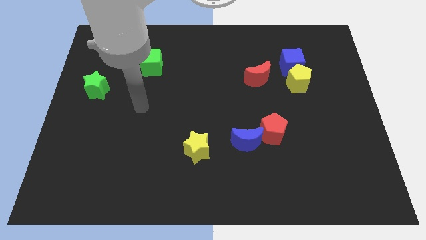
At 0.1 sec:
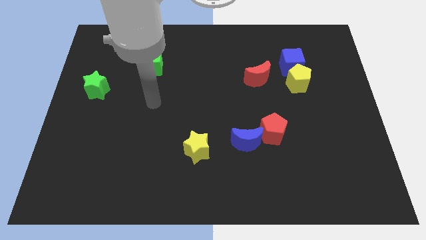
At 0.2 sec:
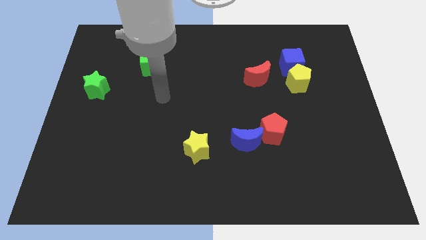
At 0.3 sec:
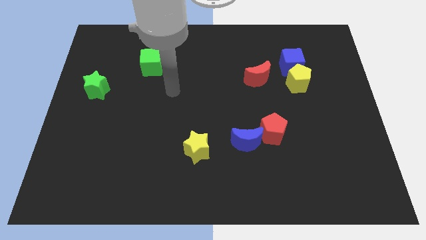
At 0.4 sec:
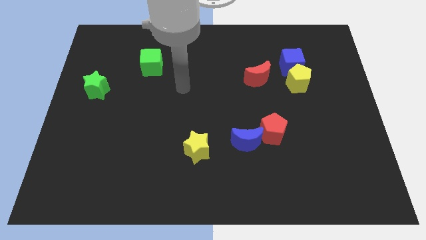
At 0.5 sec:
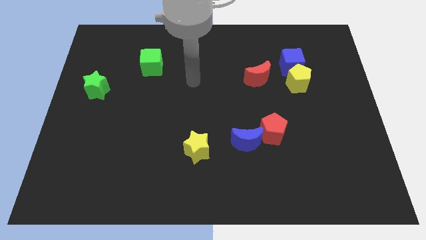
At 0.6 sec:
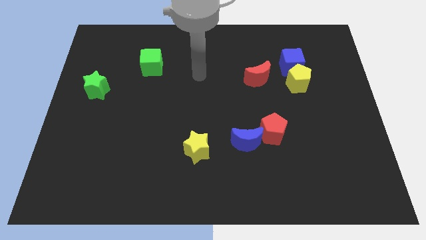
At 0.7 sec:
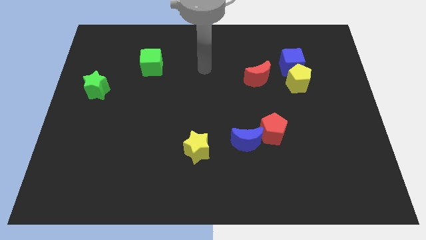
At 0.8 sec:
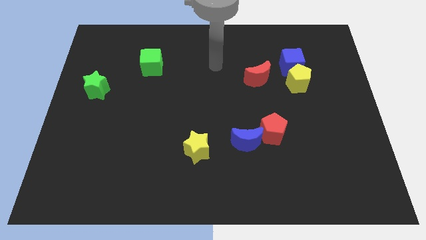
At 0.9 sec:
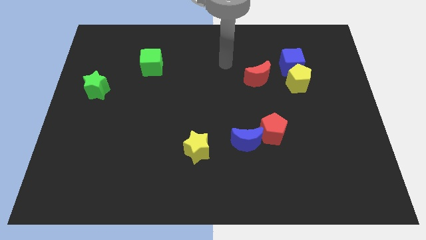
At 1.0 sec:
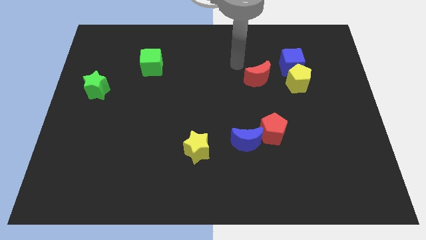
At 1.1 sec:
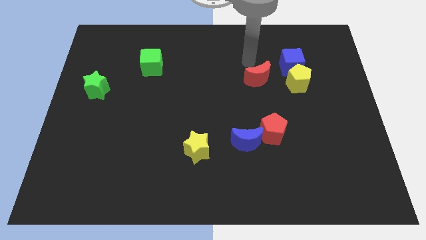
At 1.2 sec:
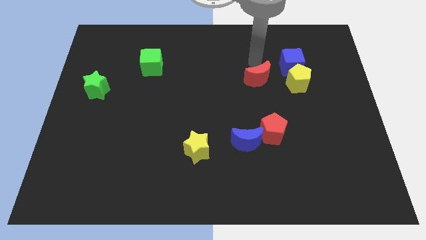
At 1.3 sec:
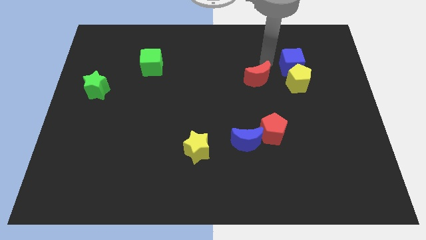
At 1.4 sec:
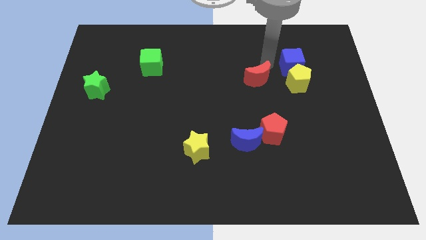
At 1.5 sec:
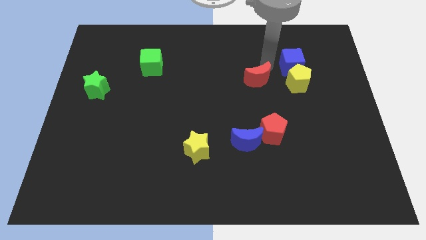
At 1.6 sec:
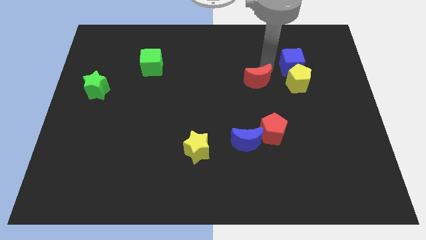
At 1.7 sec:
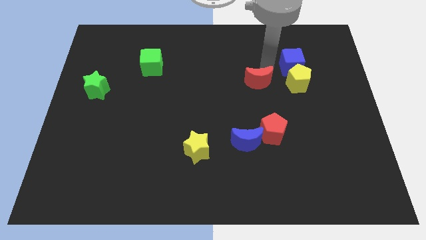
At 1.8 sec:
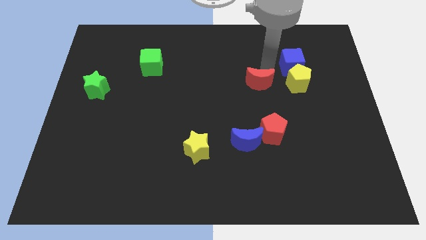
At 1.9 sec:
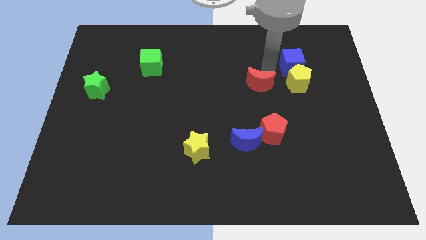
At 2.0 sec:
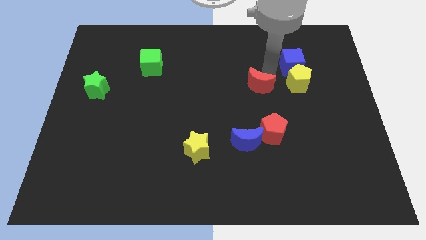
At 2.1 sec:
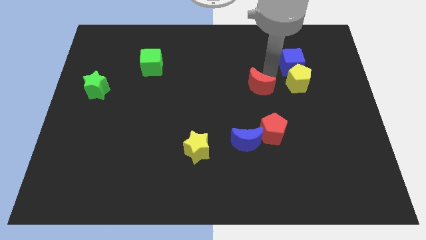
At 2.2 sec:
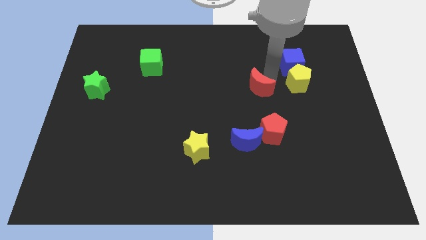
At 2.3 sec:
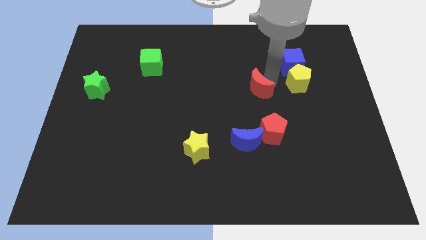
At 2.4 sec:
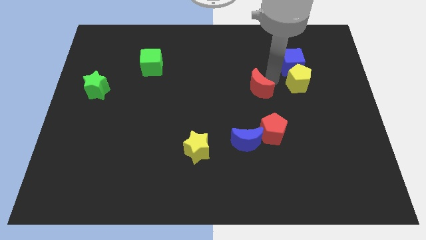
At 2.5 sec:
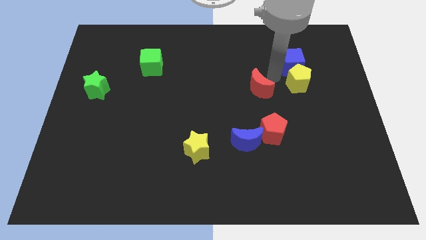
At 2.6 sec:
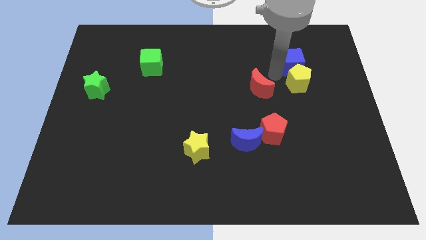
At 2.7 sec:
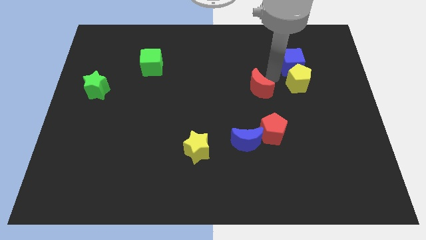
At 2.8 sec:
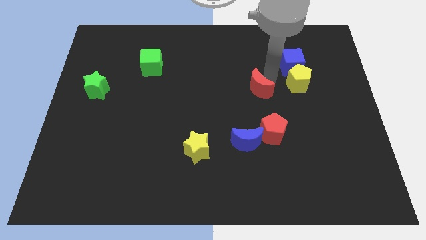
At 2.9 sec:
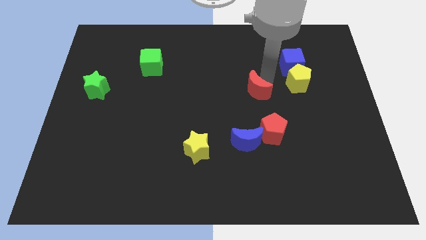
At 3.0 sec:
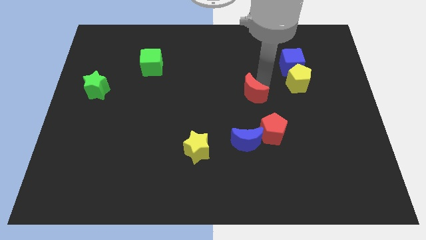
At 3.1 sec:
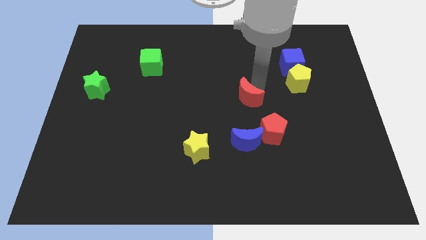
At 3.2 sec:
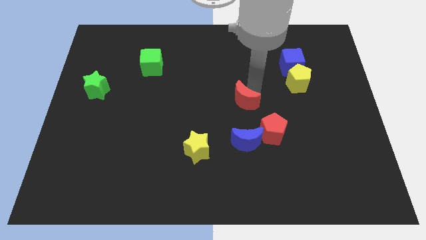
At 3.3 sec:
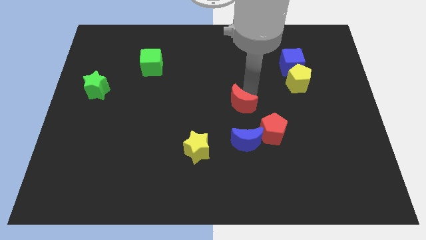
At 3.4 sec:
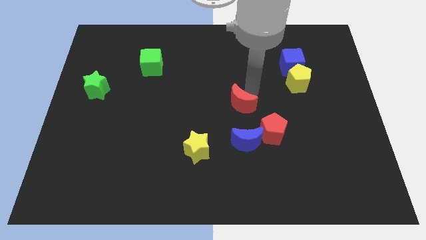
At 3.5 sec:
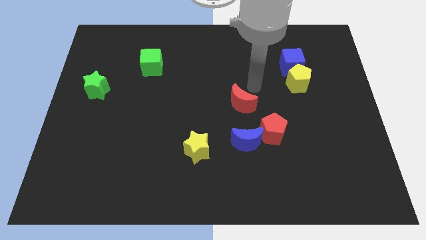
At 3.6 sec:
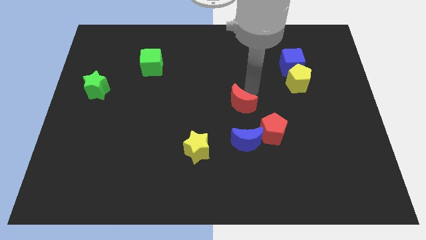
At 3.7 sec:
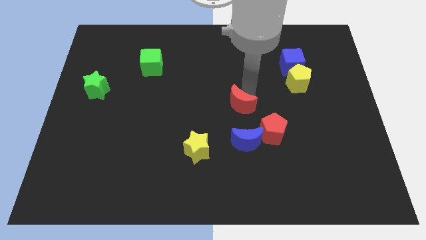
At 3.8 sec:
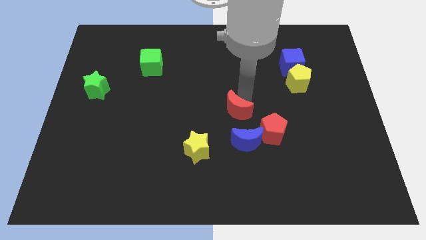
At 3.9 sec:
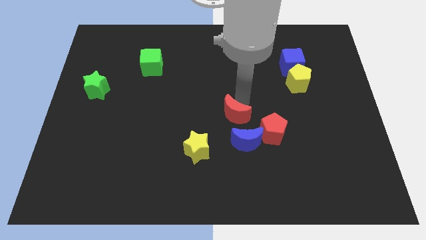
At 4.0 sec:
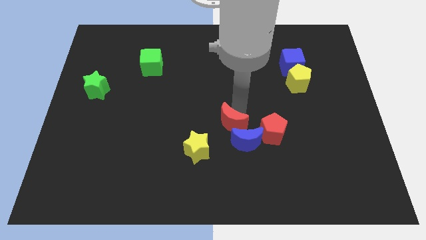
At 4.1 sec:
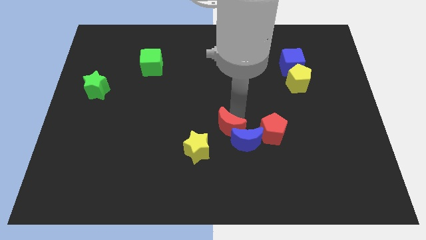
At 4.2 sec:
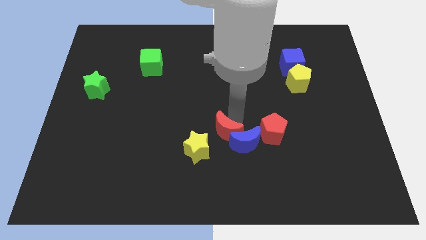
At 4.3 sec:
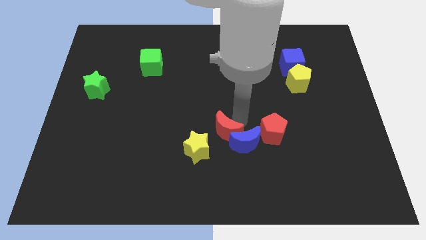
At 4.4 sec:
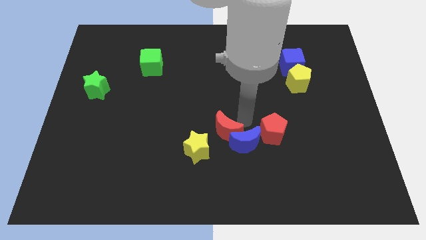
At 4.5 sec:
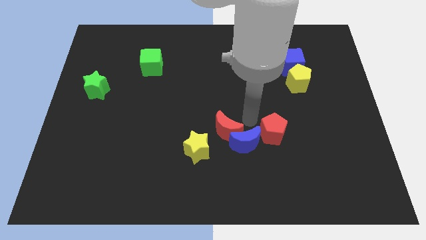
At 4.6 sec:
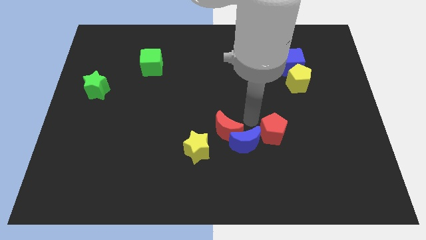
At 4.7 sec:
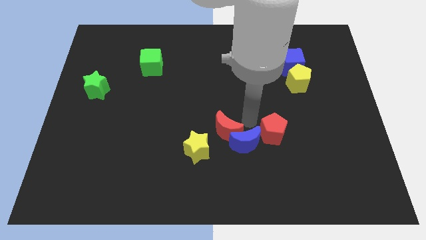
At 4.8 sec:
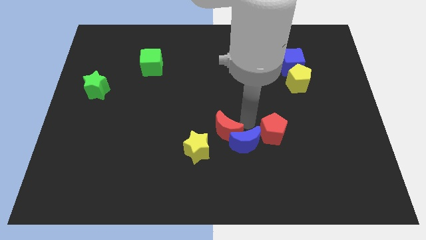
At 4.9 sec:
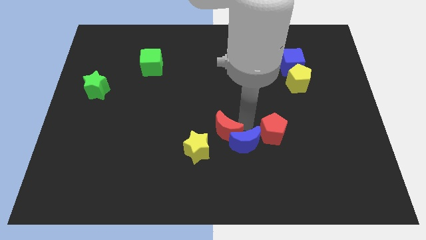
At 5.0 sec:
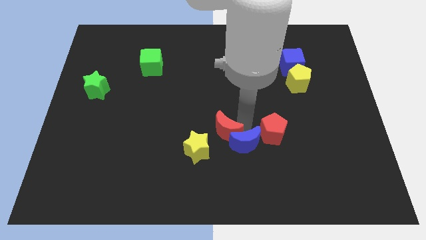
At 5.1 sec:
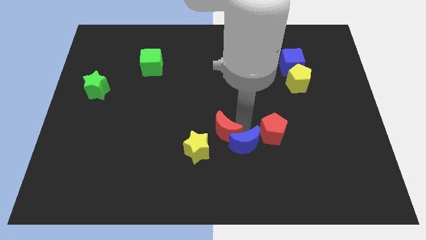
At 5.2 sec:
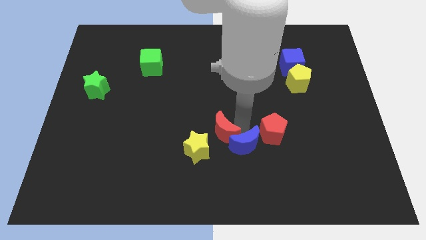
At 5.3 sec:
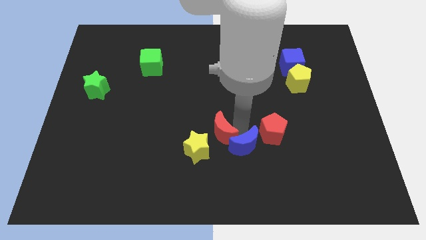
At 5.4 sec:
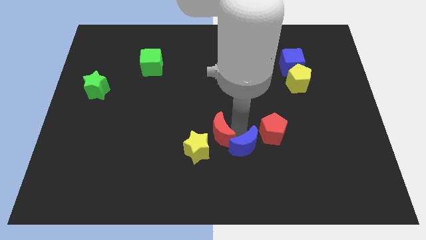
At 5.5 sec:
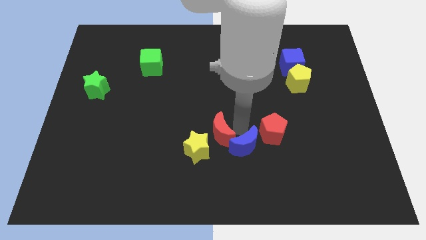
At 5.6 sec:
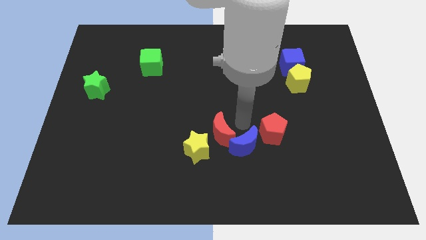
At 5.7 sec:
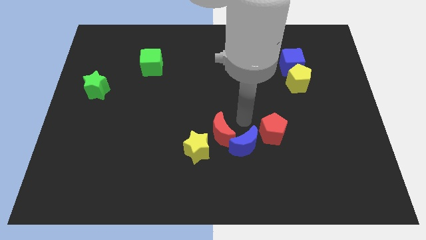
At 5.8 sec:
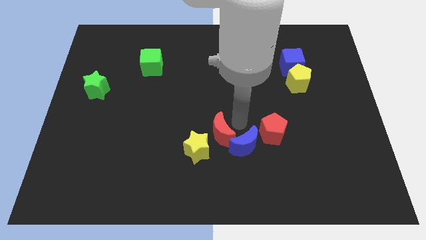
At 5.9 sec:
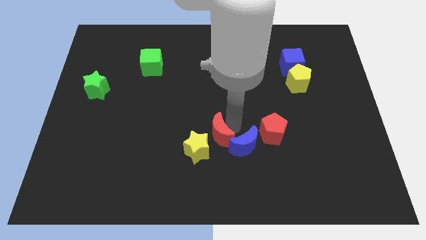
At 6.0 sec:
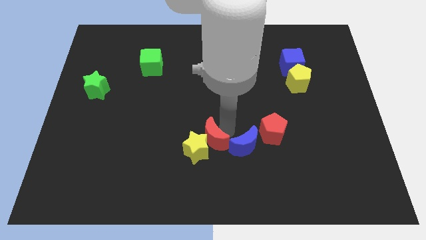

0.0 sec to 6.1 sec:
move the red moon next to the yellow star

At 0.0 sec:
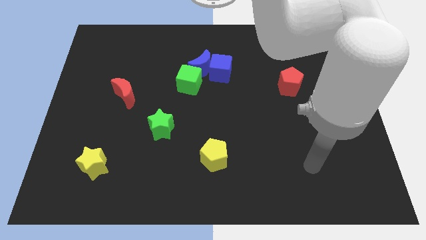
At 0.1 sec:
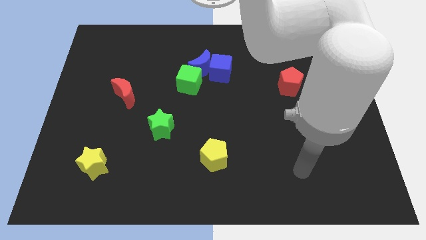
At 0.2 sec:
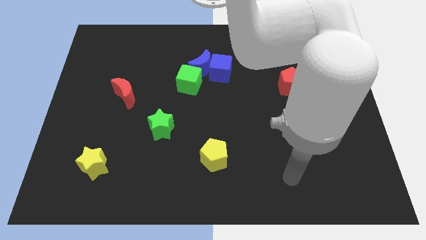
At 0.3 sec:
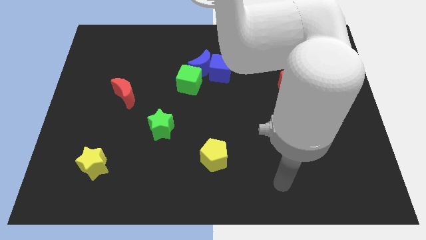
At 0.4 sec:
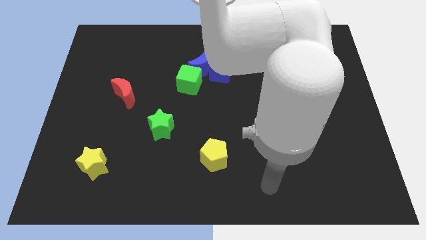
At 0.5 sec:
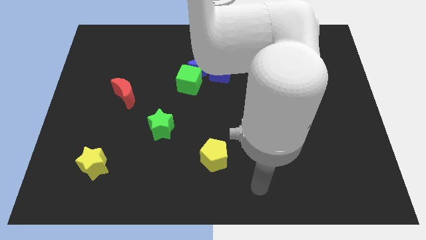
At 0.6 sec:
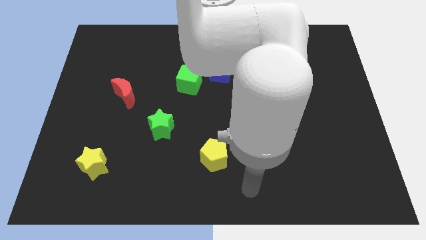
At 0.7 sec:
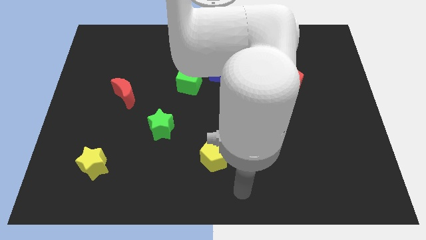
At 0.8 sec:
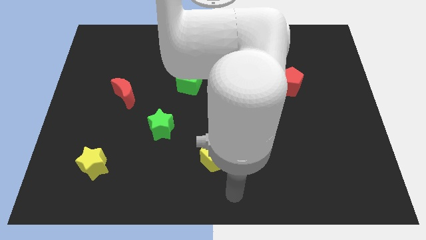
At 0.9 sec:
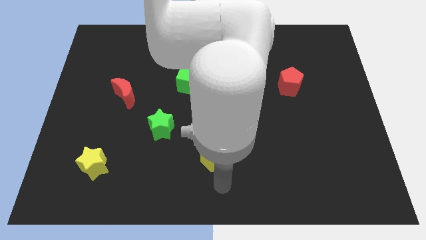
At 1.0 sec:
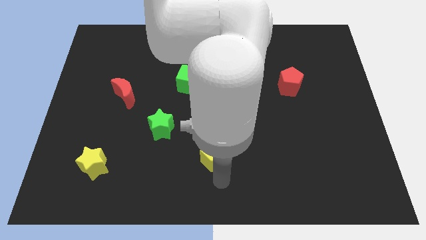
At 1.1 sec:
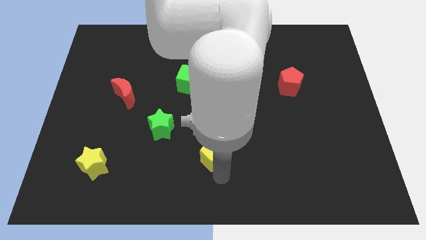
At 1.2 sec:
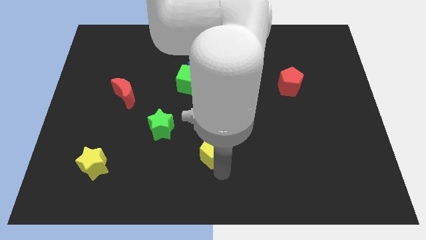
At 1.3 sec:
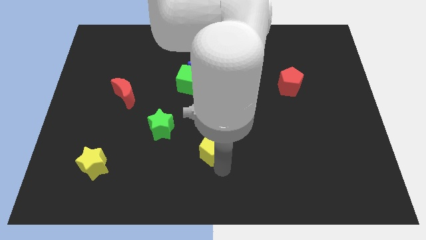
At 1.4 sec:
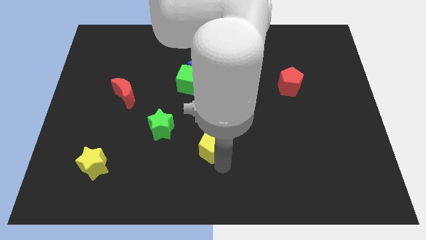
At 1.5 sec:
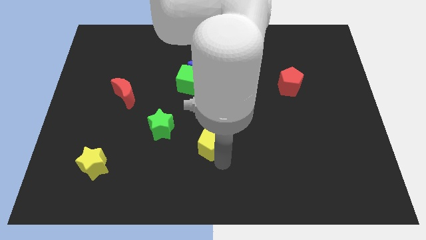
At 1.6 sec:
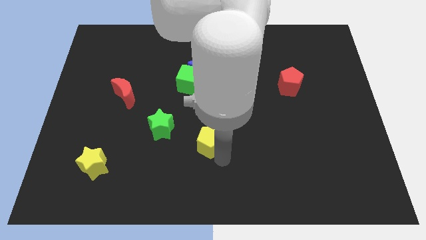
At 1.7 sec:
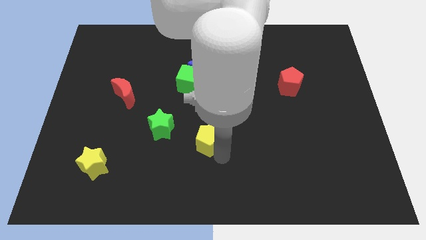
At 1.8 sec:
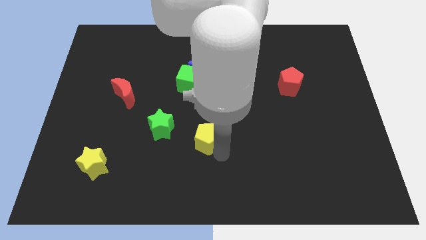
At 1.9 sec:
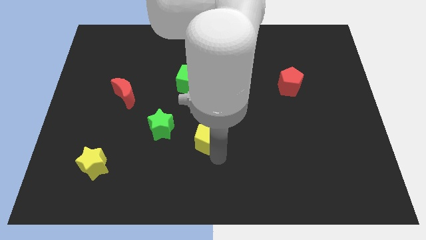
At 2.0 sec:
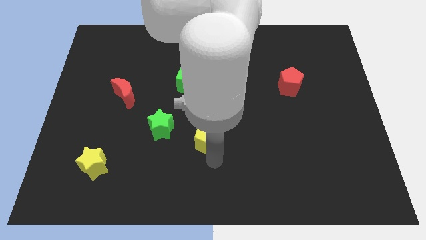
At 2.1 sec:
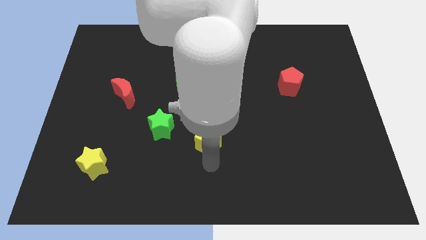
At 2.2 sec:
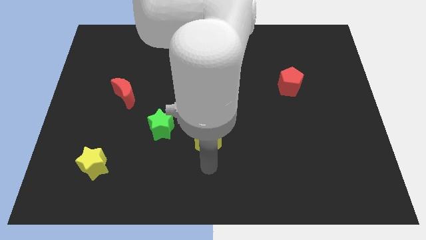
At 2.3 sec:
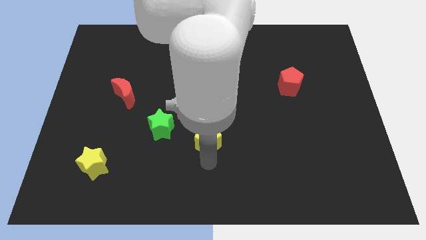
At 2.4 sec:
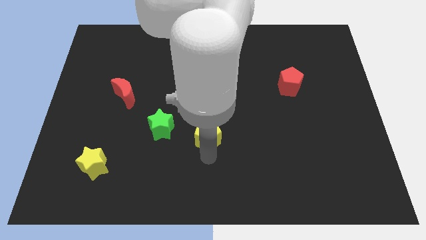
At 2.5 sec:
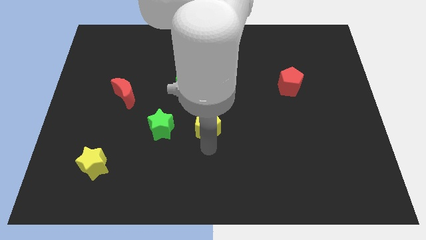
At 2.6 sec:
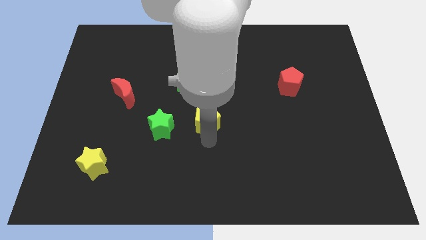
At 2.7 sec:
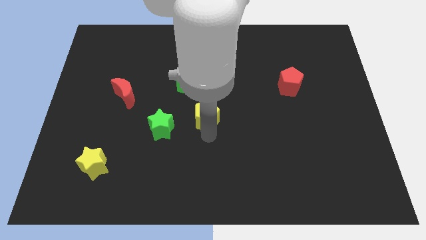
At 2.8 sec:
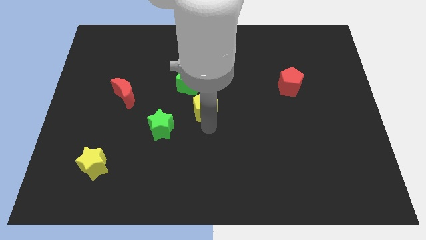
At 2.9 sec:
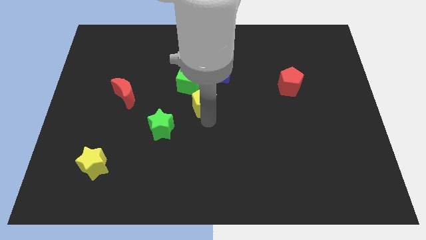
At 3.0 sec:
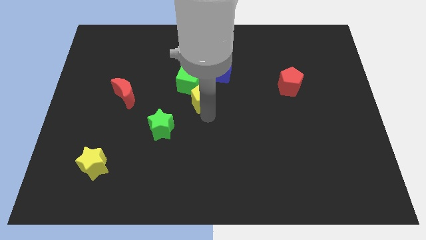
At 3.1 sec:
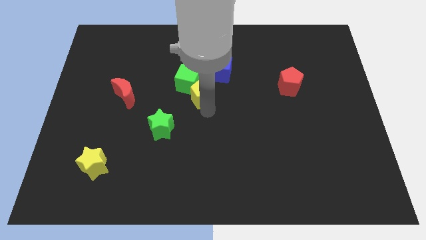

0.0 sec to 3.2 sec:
slide the yellow pentagon close to the green cube
